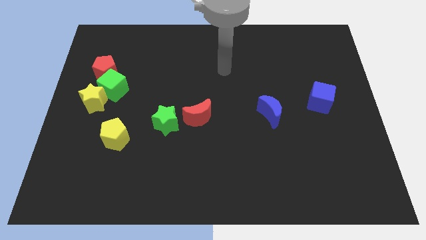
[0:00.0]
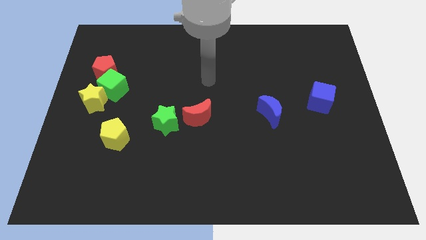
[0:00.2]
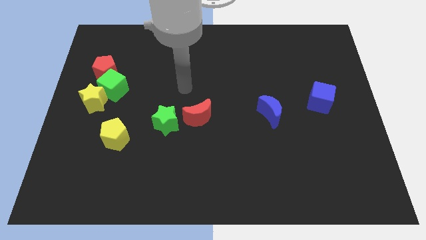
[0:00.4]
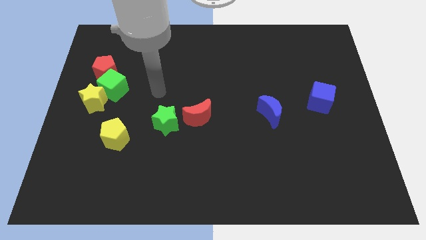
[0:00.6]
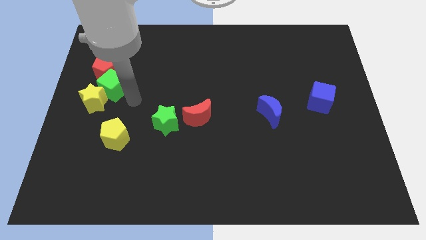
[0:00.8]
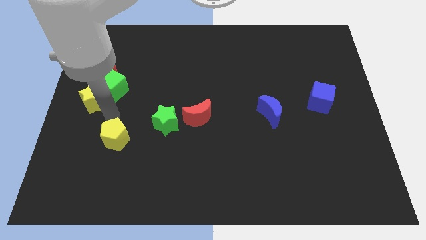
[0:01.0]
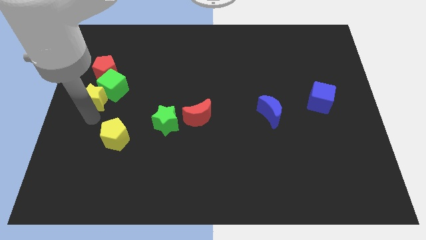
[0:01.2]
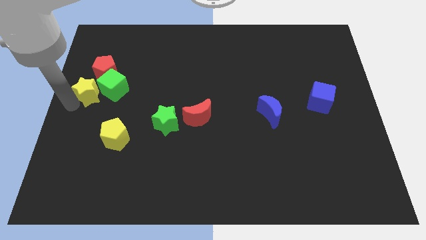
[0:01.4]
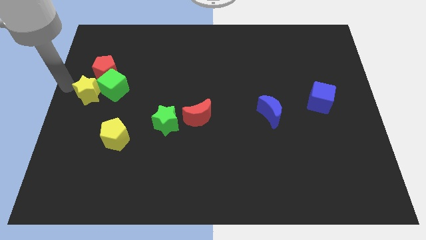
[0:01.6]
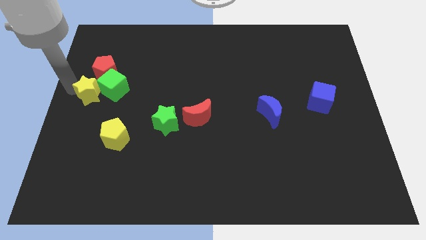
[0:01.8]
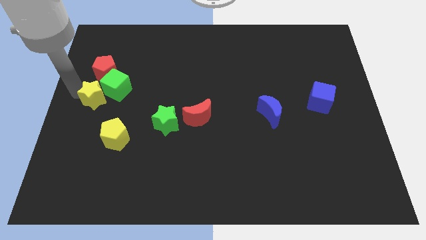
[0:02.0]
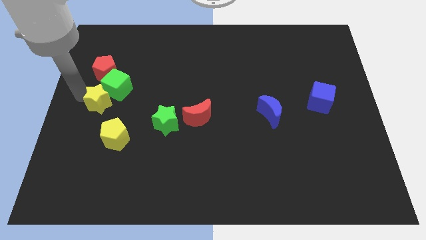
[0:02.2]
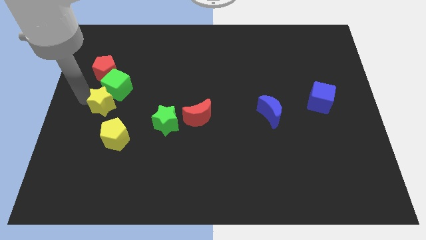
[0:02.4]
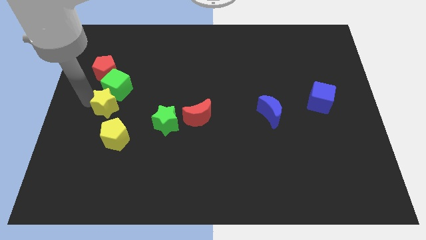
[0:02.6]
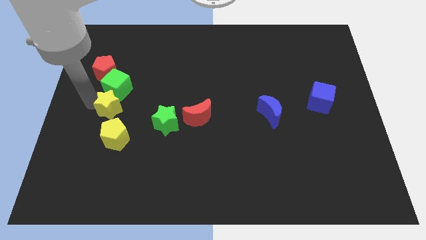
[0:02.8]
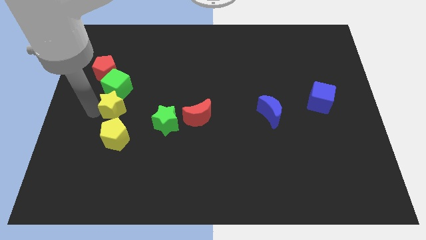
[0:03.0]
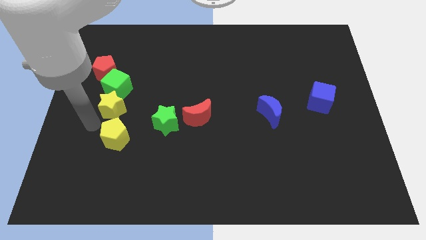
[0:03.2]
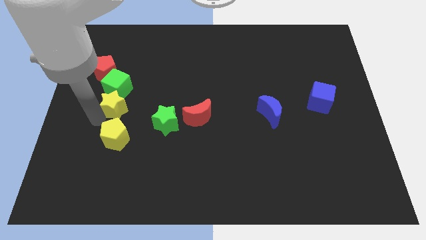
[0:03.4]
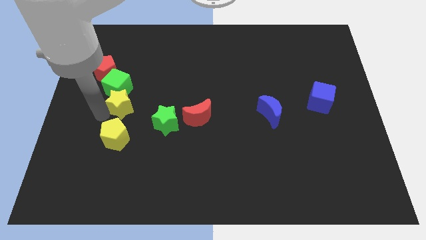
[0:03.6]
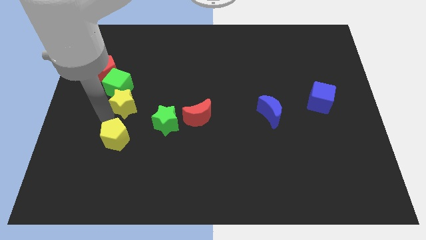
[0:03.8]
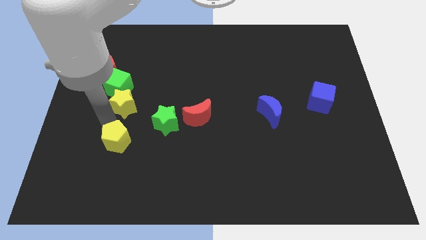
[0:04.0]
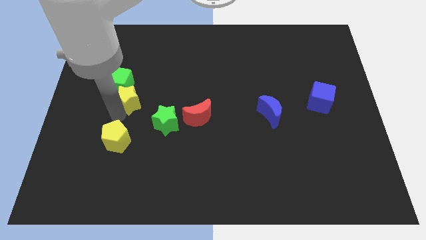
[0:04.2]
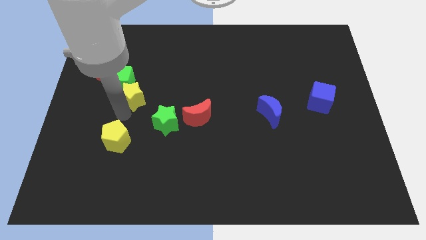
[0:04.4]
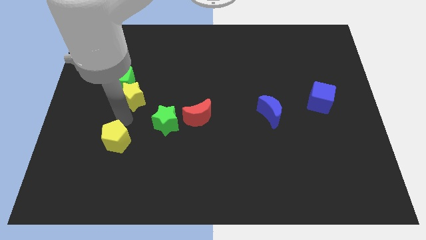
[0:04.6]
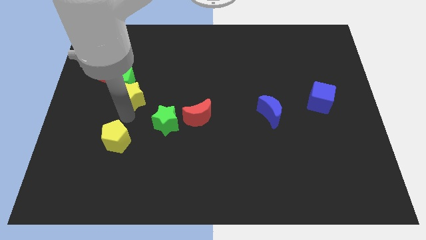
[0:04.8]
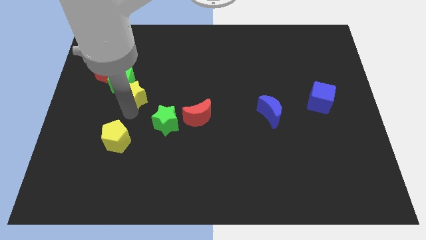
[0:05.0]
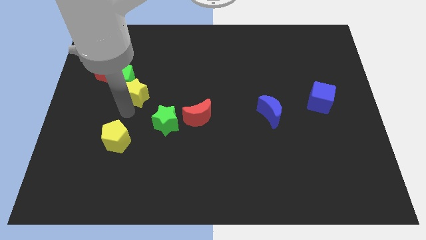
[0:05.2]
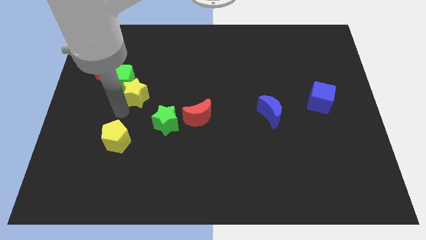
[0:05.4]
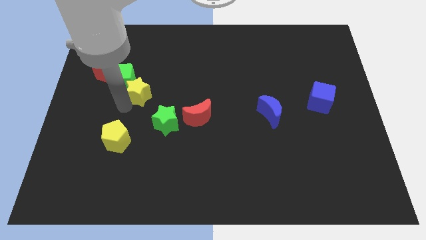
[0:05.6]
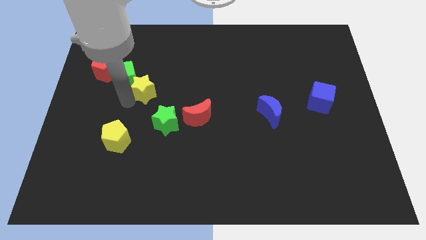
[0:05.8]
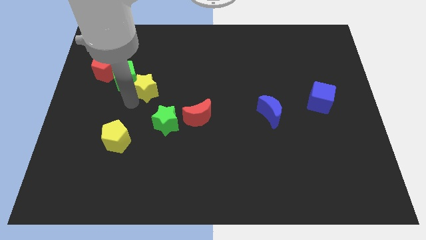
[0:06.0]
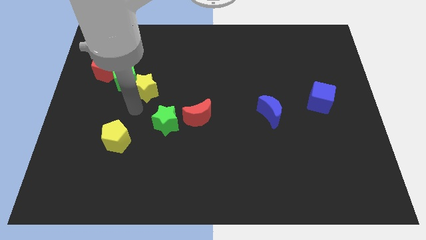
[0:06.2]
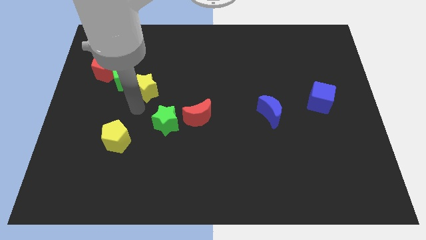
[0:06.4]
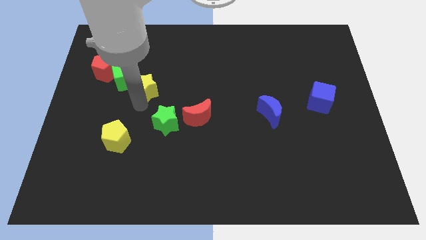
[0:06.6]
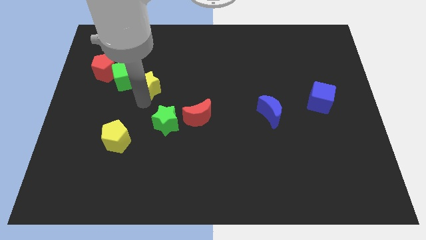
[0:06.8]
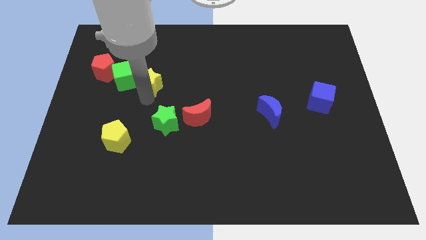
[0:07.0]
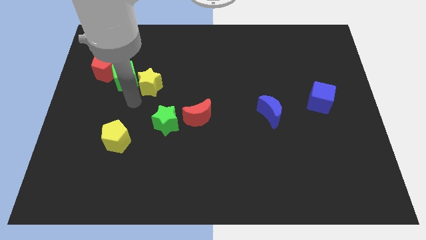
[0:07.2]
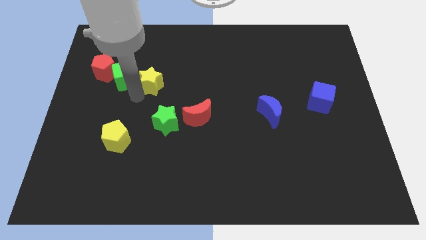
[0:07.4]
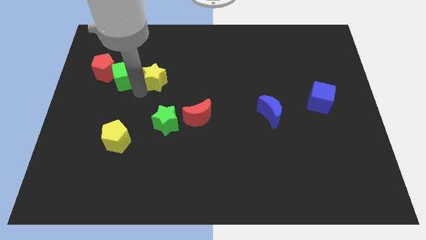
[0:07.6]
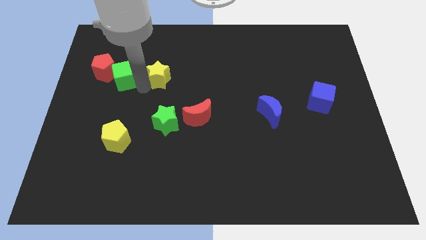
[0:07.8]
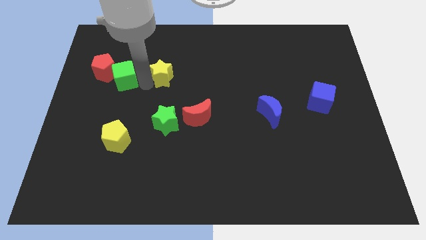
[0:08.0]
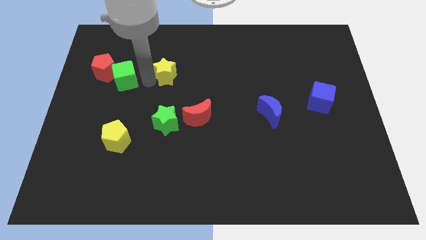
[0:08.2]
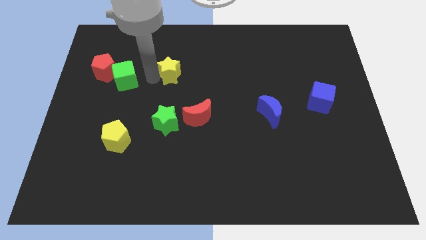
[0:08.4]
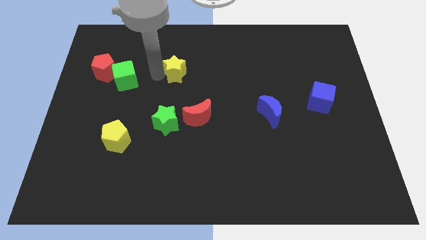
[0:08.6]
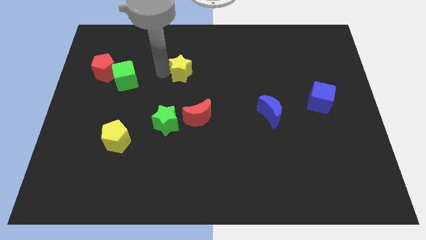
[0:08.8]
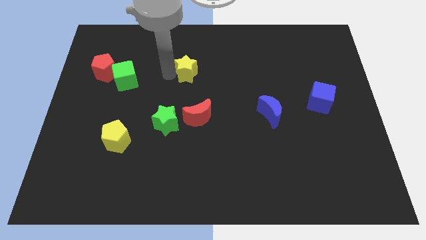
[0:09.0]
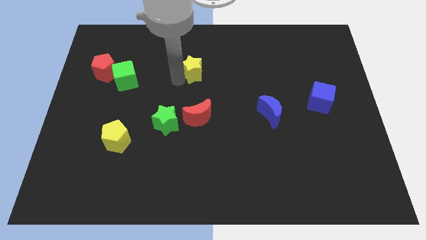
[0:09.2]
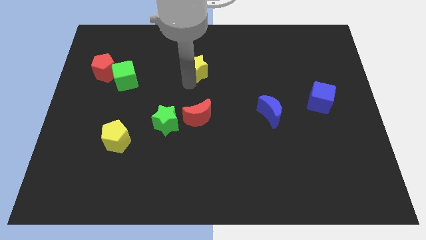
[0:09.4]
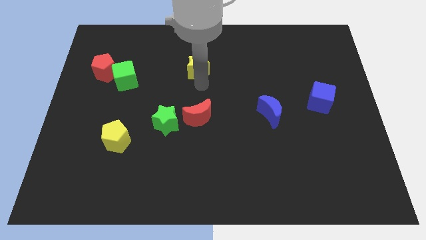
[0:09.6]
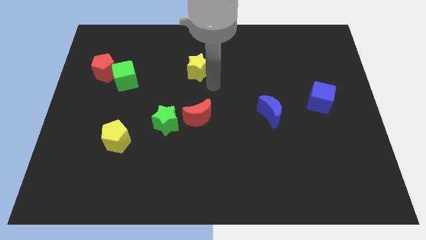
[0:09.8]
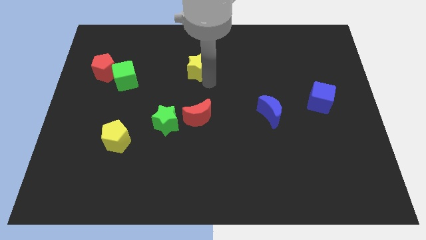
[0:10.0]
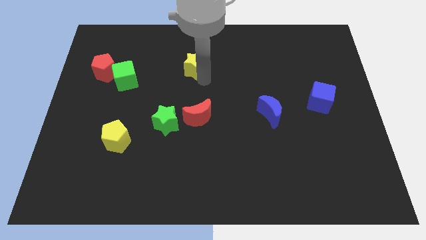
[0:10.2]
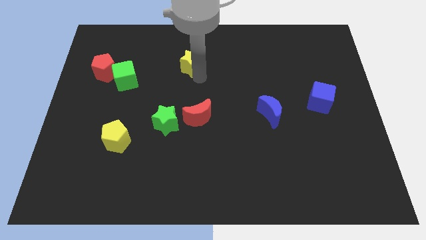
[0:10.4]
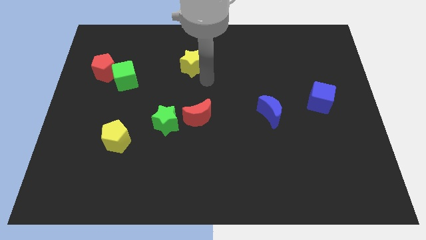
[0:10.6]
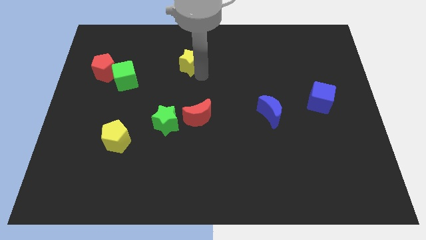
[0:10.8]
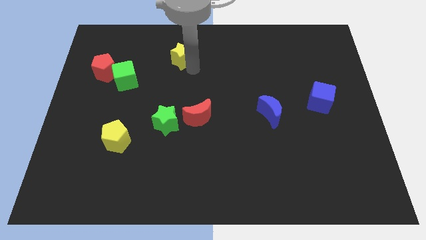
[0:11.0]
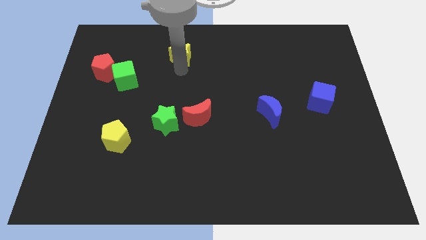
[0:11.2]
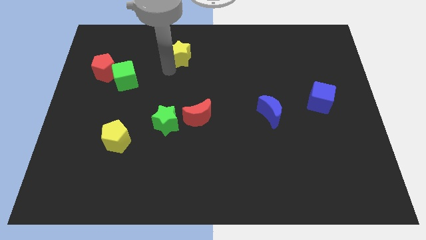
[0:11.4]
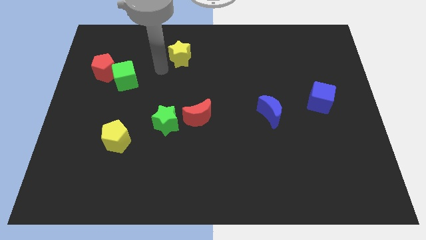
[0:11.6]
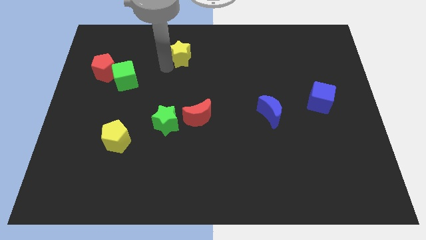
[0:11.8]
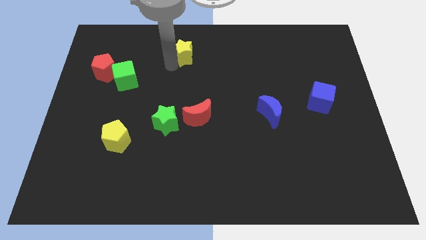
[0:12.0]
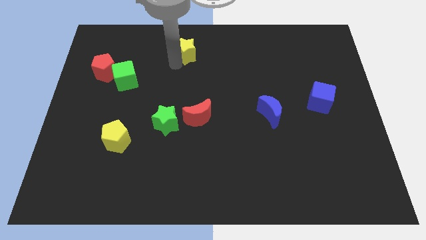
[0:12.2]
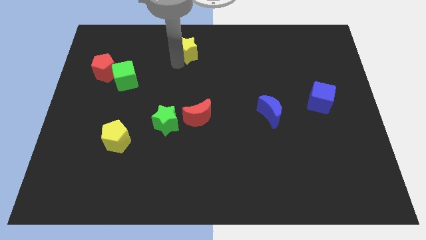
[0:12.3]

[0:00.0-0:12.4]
push the yellow star to the towards your base
